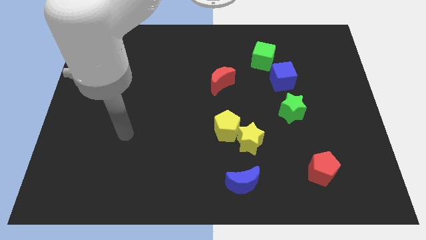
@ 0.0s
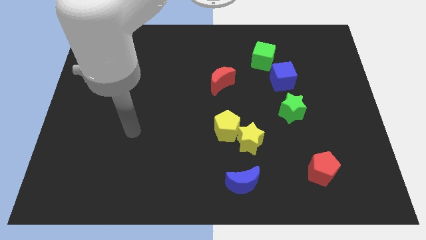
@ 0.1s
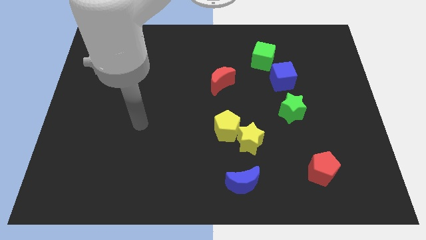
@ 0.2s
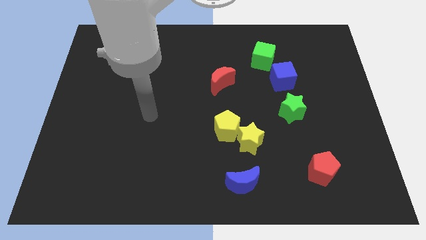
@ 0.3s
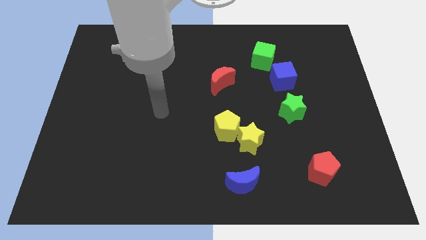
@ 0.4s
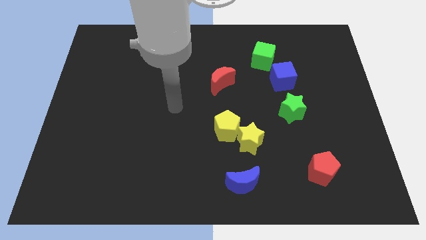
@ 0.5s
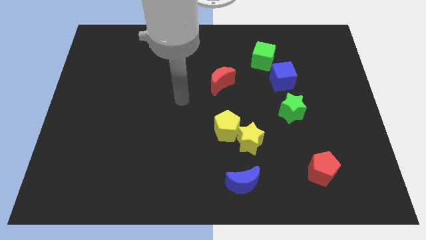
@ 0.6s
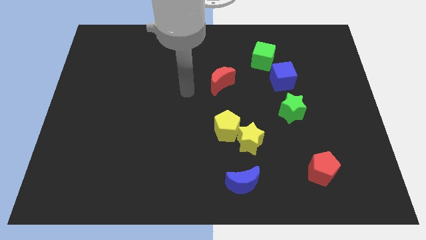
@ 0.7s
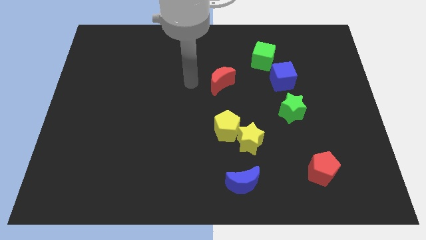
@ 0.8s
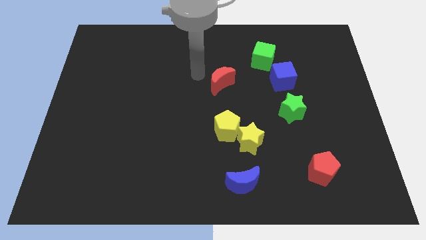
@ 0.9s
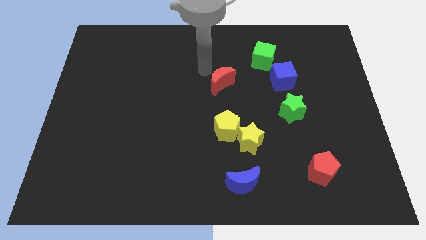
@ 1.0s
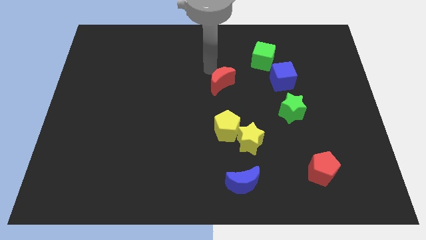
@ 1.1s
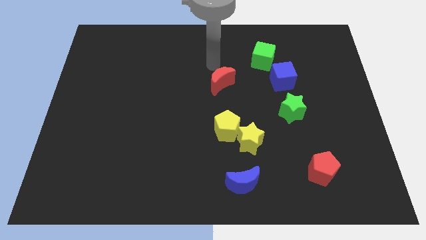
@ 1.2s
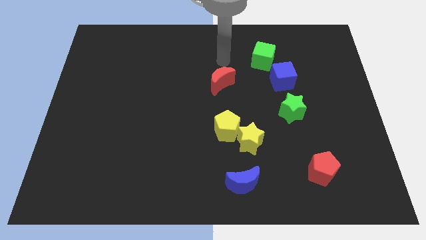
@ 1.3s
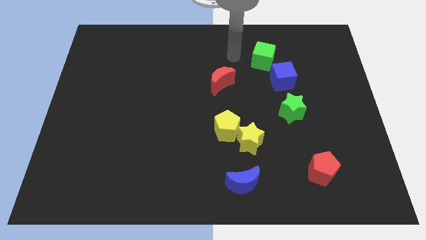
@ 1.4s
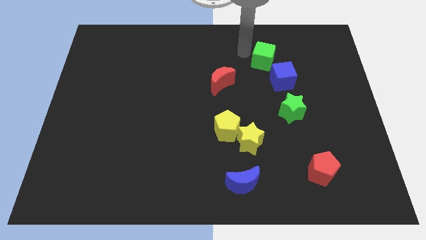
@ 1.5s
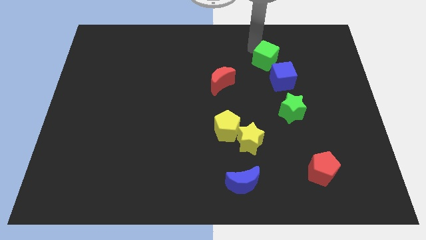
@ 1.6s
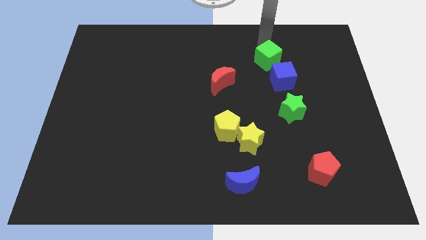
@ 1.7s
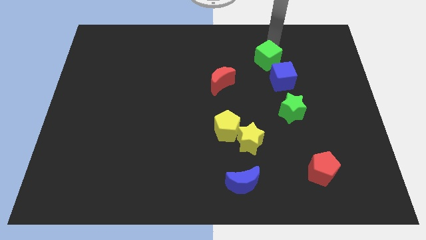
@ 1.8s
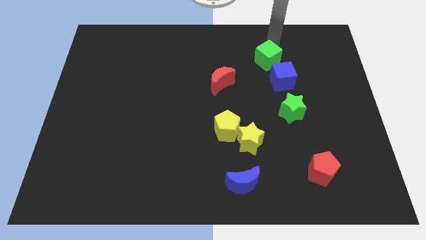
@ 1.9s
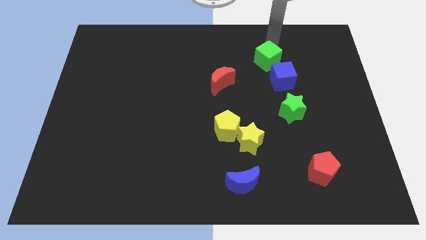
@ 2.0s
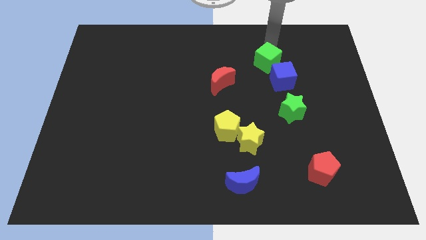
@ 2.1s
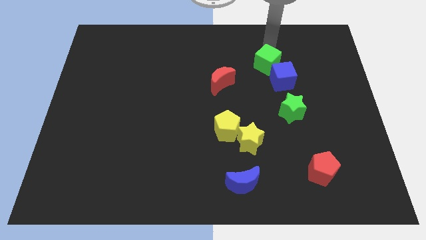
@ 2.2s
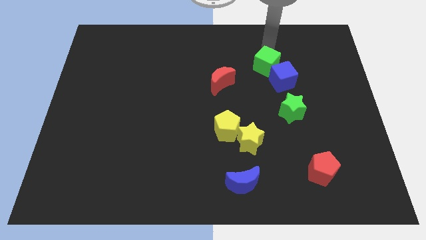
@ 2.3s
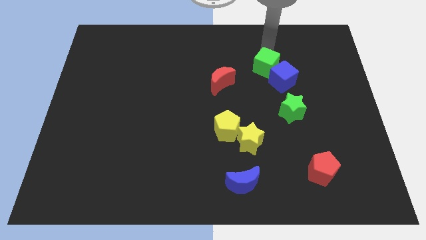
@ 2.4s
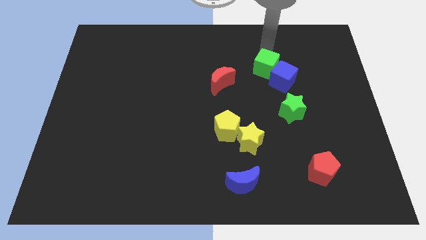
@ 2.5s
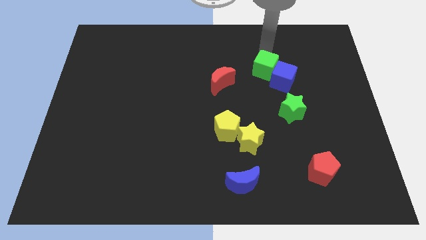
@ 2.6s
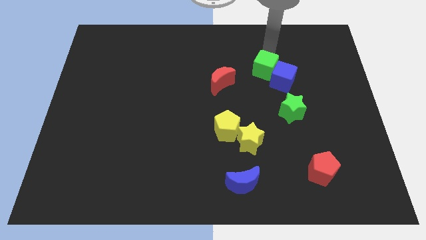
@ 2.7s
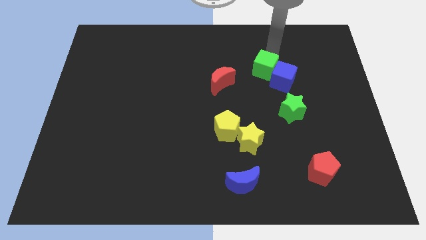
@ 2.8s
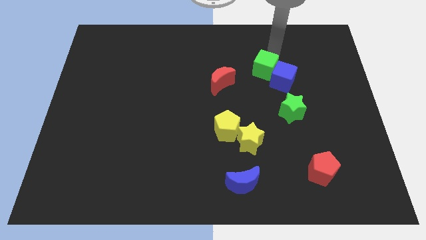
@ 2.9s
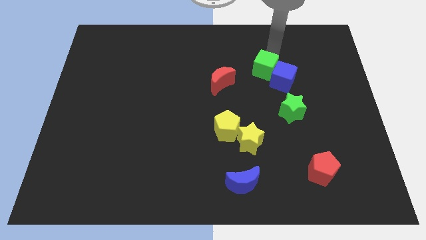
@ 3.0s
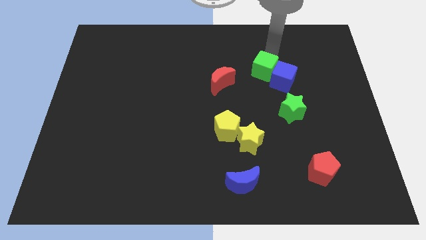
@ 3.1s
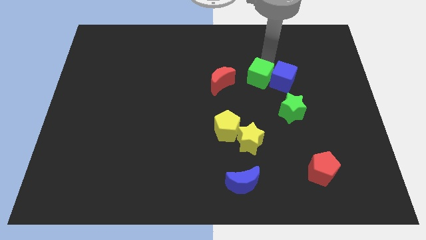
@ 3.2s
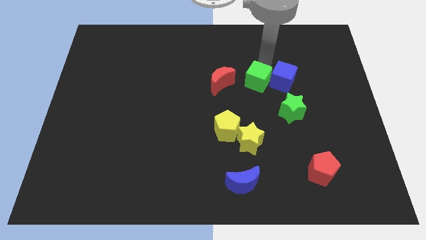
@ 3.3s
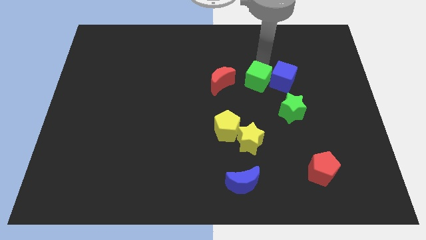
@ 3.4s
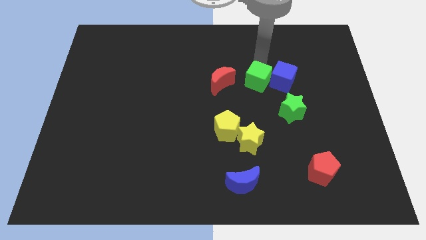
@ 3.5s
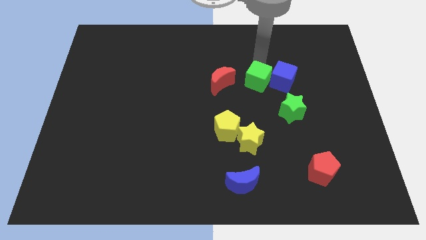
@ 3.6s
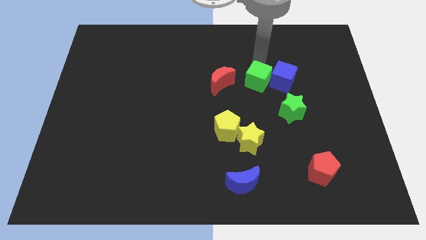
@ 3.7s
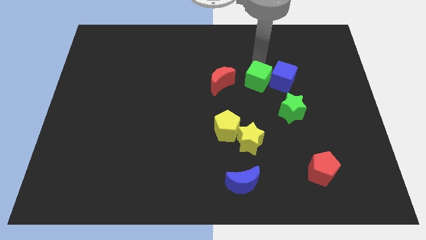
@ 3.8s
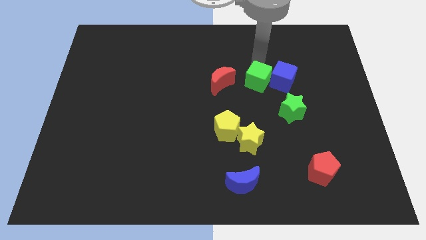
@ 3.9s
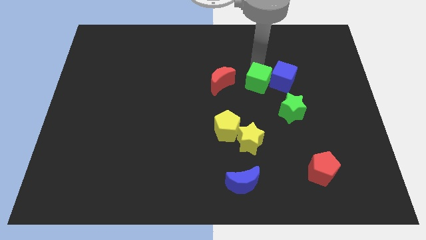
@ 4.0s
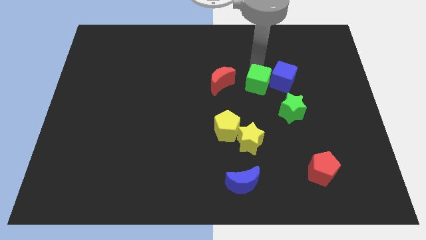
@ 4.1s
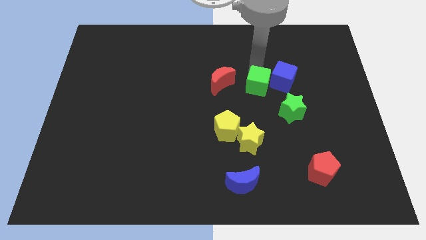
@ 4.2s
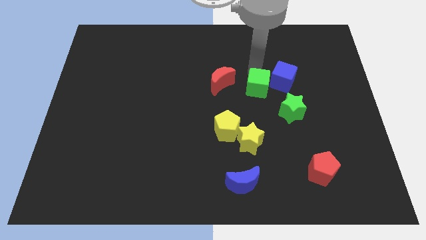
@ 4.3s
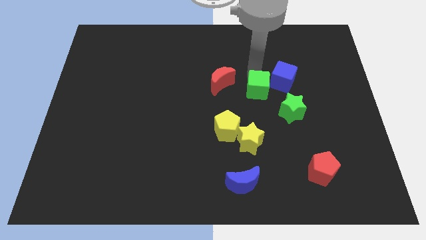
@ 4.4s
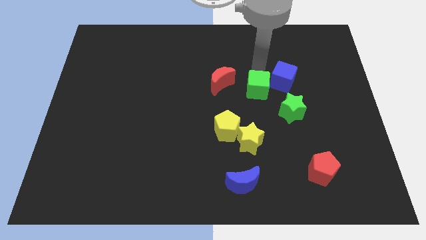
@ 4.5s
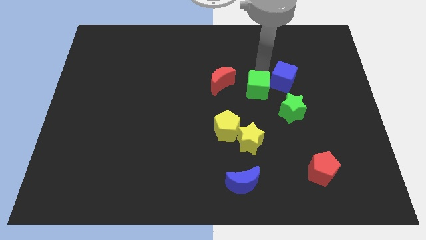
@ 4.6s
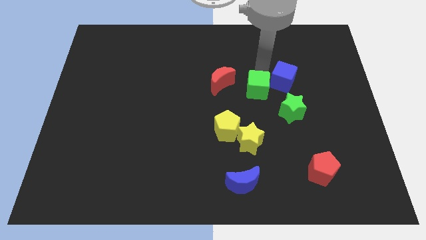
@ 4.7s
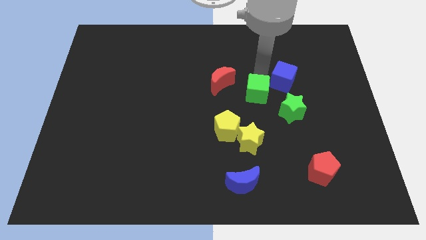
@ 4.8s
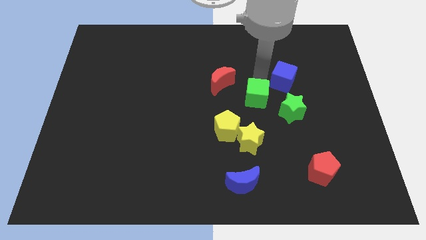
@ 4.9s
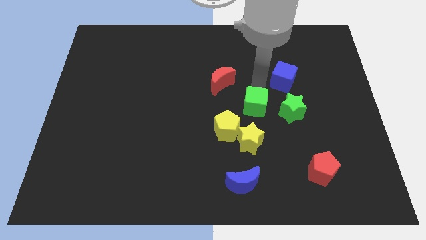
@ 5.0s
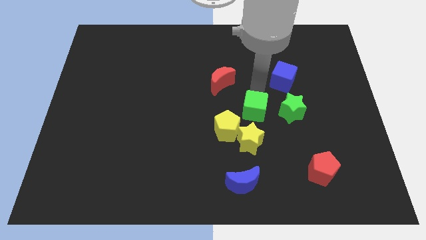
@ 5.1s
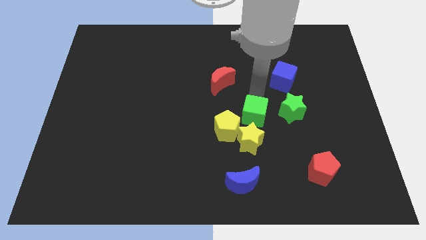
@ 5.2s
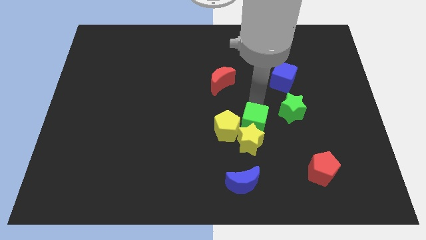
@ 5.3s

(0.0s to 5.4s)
put the green cube towards the yellow star

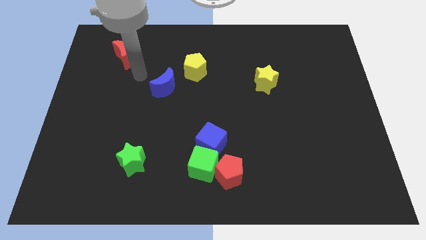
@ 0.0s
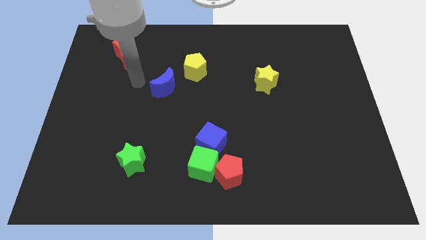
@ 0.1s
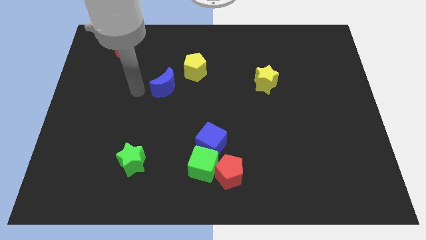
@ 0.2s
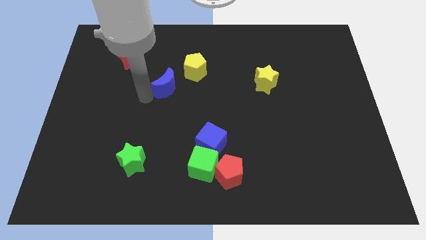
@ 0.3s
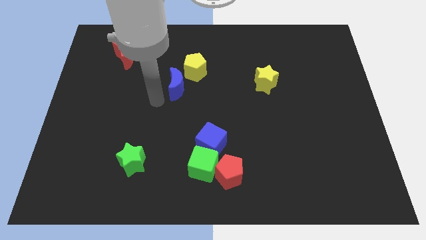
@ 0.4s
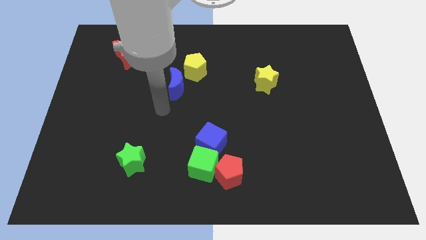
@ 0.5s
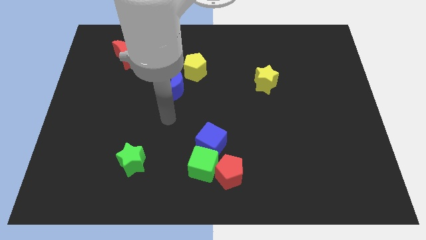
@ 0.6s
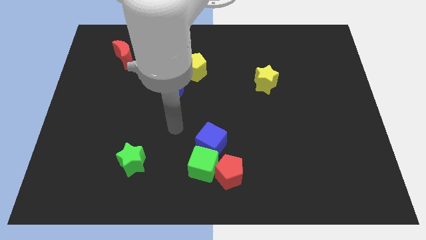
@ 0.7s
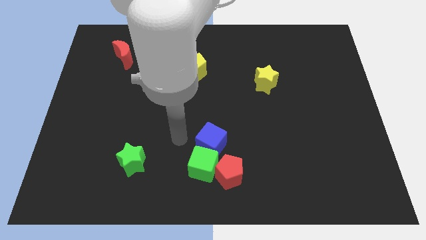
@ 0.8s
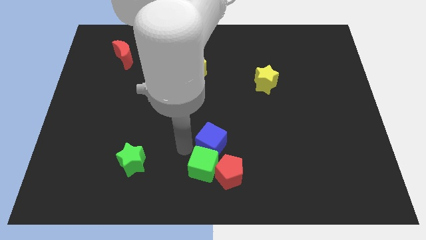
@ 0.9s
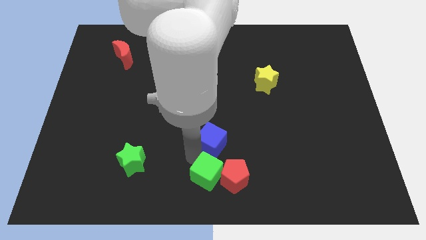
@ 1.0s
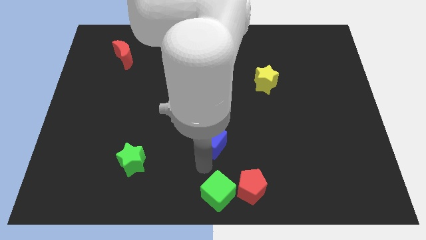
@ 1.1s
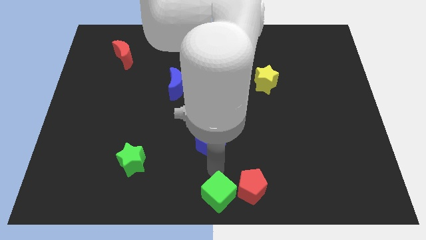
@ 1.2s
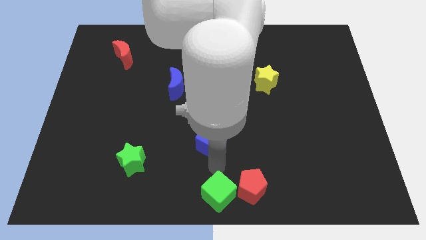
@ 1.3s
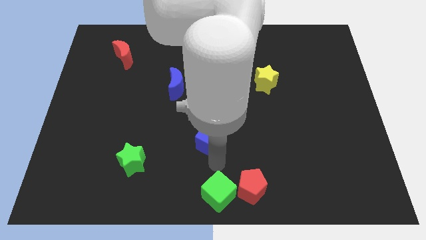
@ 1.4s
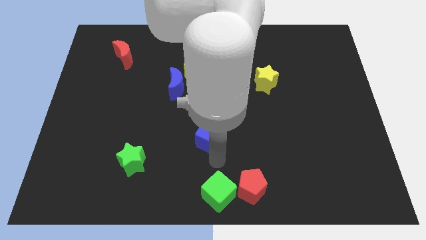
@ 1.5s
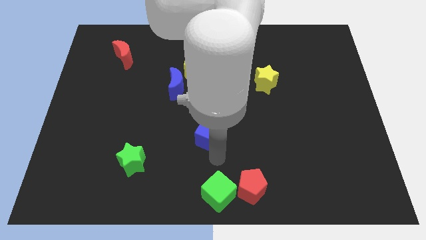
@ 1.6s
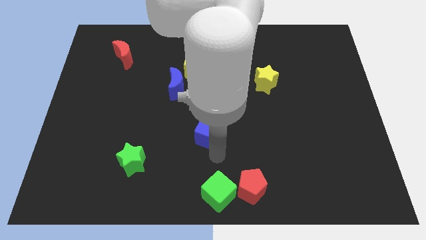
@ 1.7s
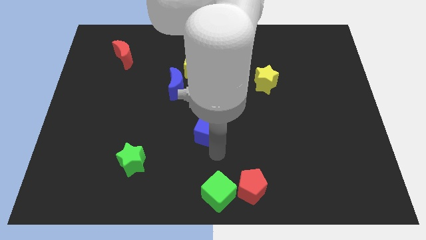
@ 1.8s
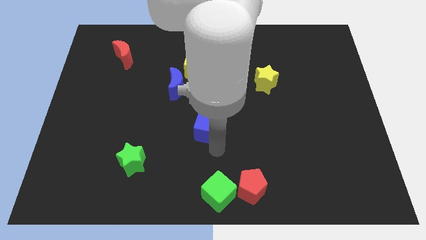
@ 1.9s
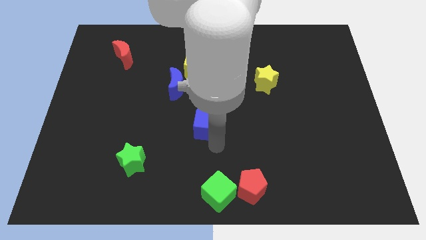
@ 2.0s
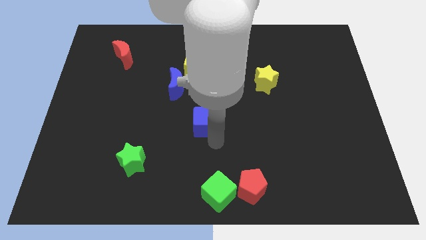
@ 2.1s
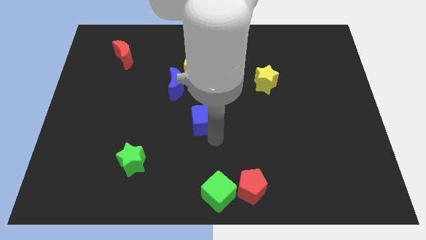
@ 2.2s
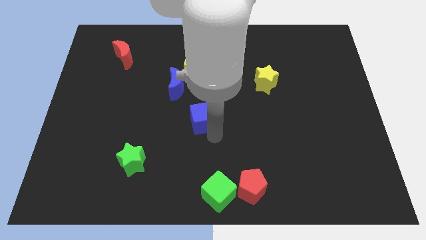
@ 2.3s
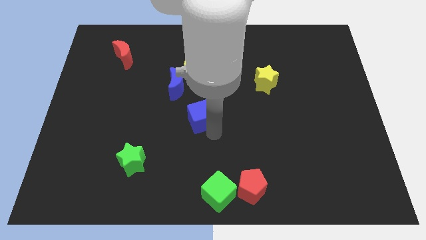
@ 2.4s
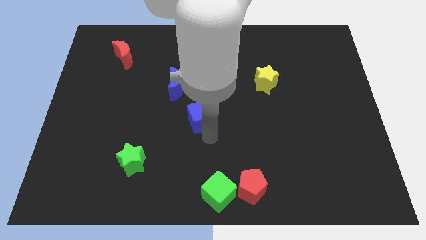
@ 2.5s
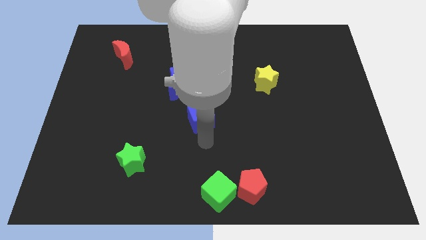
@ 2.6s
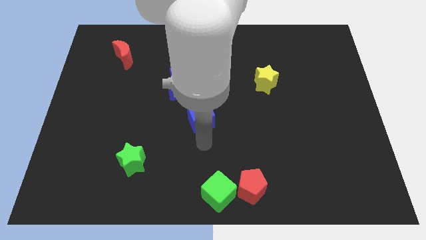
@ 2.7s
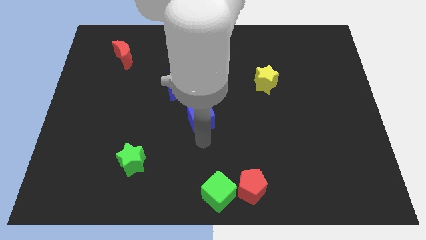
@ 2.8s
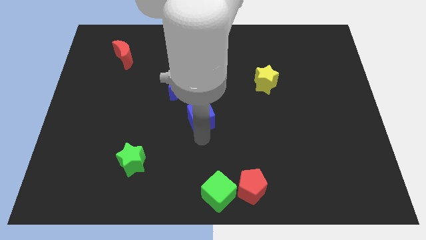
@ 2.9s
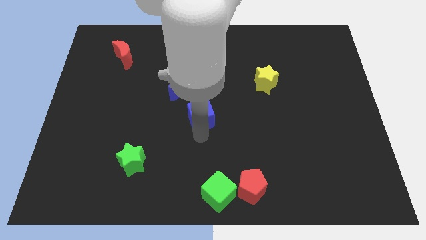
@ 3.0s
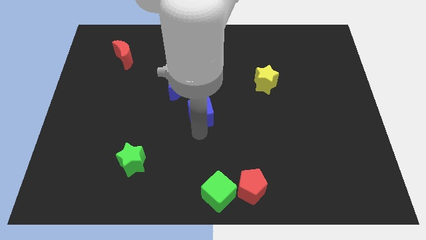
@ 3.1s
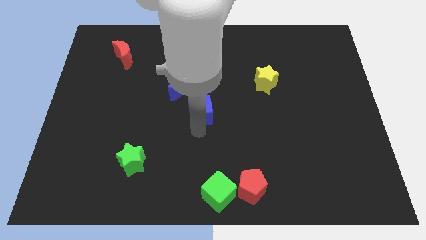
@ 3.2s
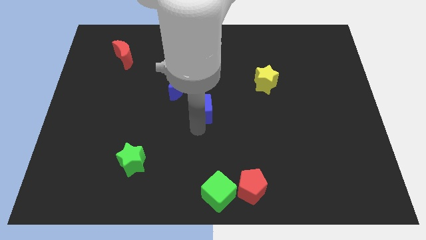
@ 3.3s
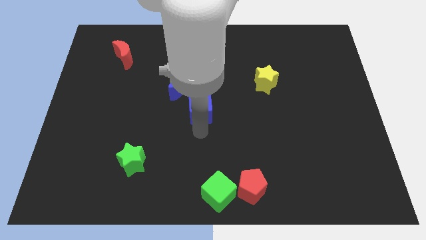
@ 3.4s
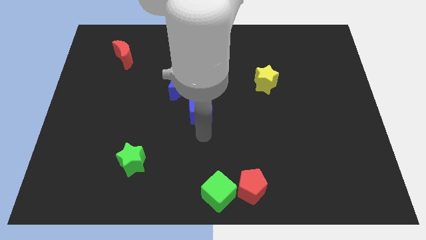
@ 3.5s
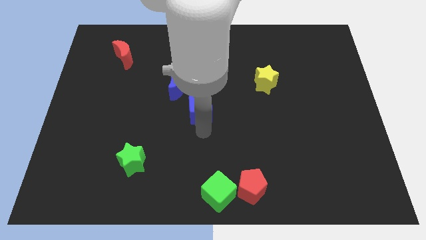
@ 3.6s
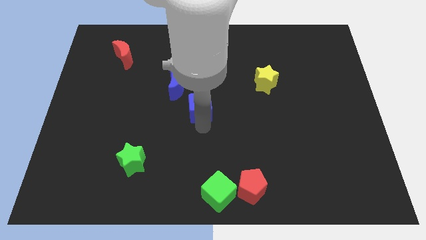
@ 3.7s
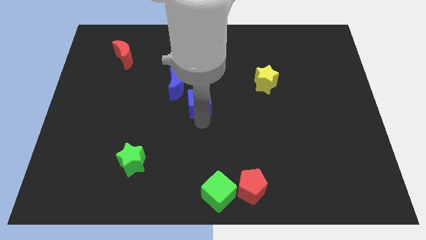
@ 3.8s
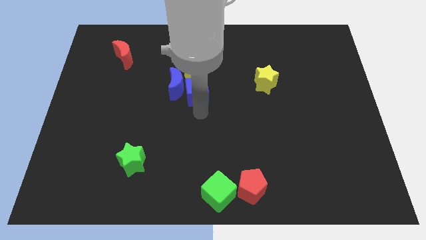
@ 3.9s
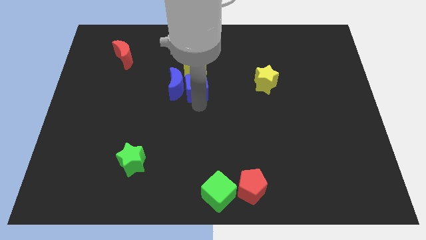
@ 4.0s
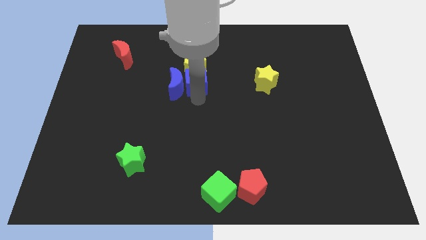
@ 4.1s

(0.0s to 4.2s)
slide the blue cube close to the yellow pentagon
